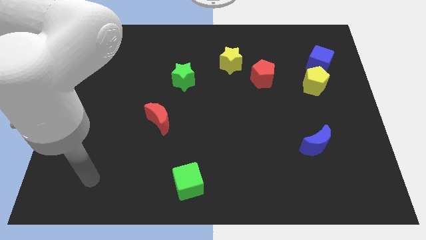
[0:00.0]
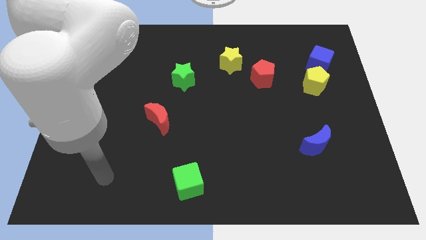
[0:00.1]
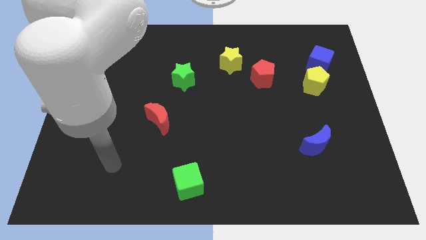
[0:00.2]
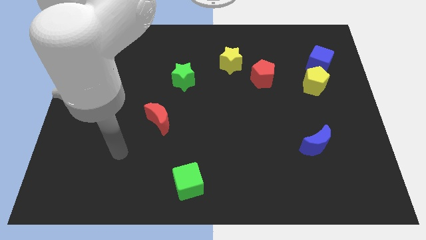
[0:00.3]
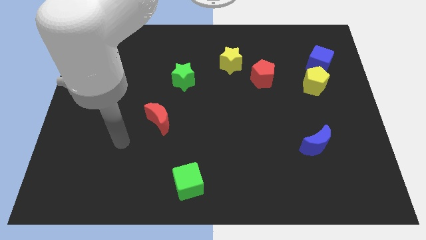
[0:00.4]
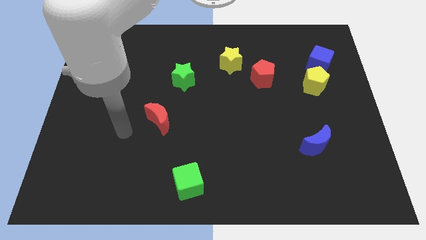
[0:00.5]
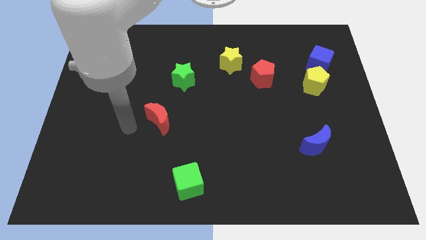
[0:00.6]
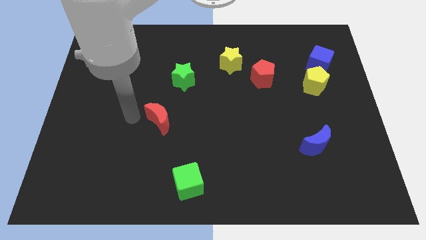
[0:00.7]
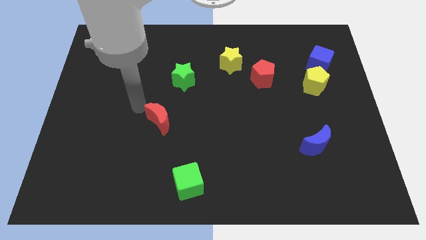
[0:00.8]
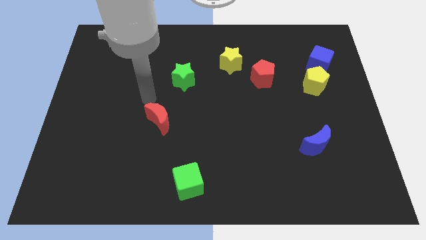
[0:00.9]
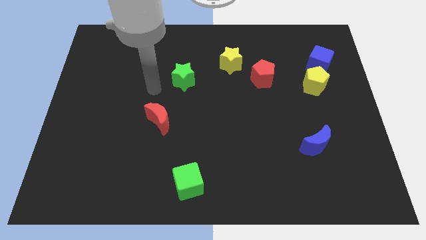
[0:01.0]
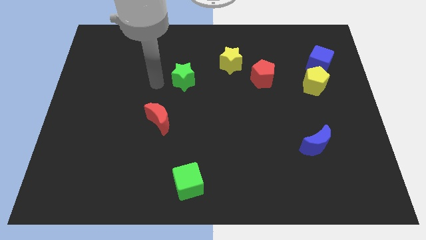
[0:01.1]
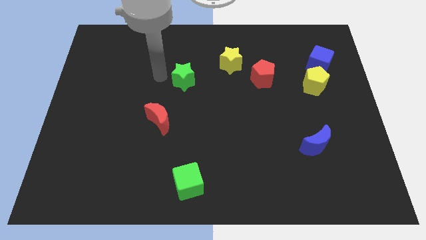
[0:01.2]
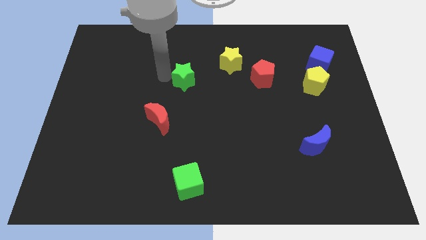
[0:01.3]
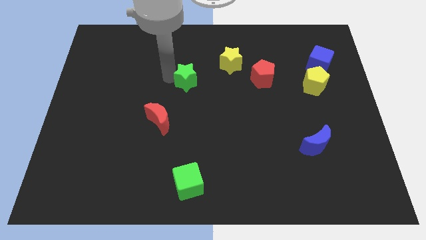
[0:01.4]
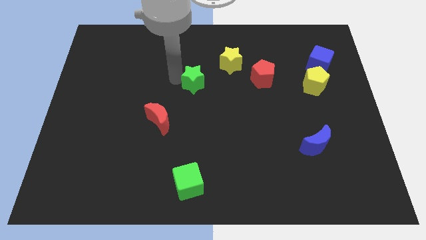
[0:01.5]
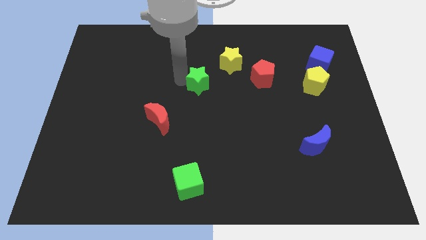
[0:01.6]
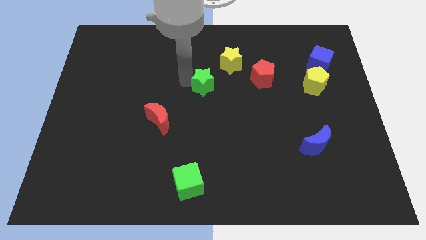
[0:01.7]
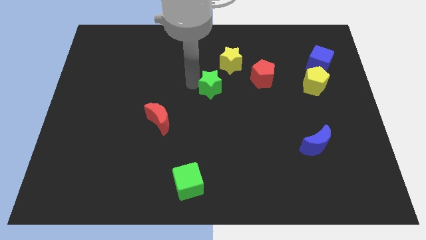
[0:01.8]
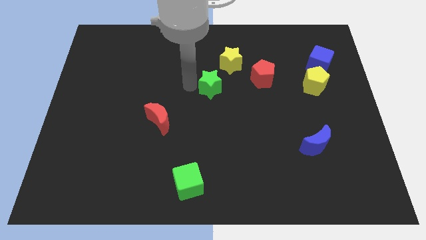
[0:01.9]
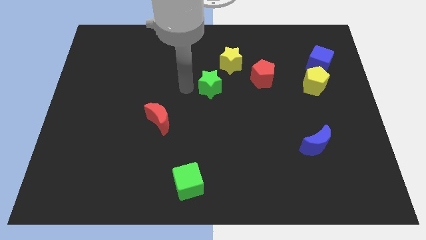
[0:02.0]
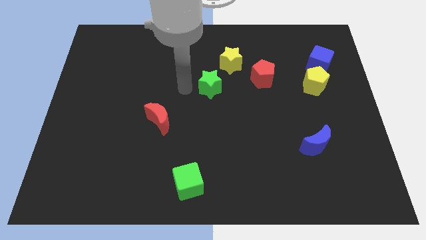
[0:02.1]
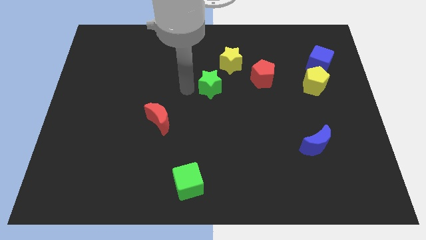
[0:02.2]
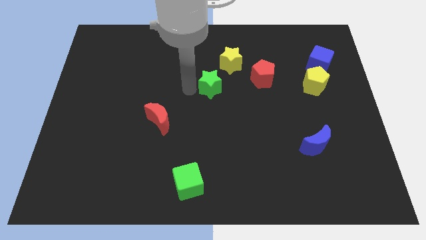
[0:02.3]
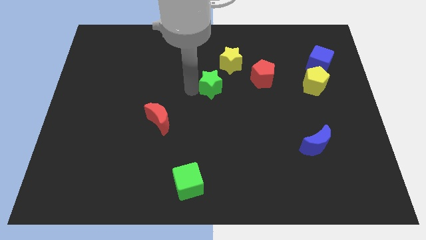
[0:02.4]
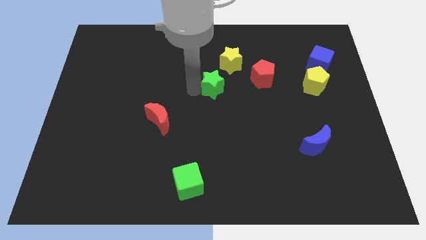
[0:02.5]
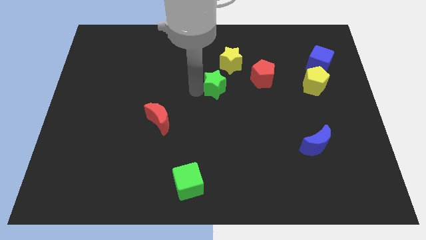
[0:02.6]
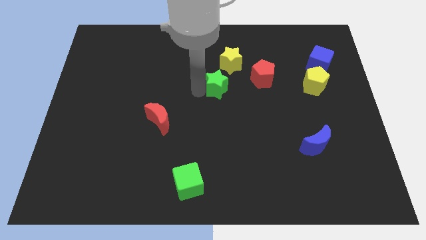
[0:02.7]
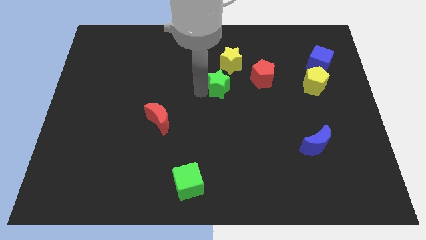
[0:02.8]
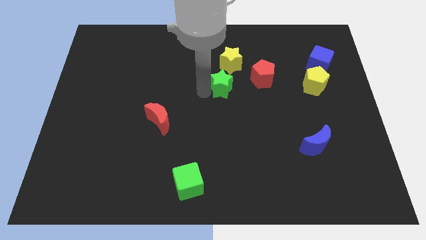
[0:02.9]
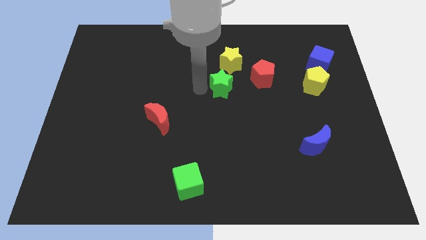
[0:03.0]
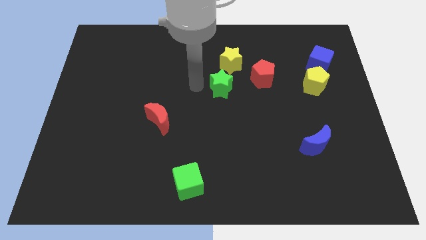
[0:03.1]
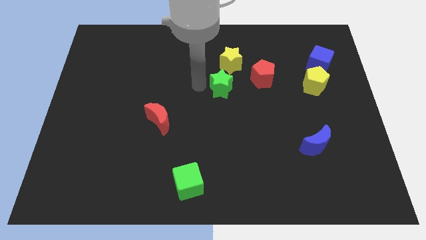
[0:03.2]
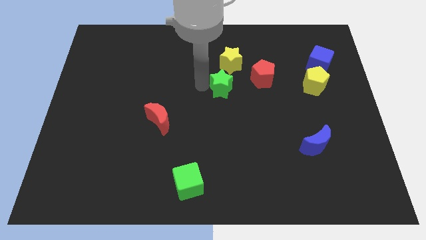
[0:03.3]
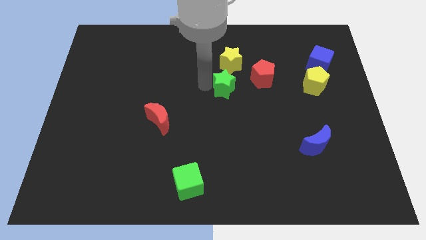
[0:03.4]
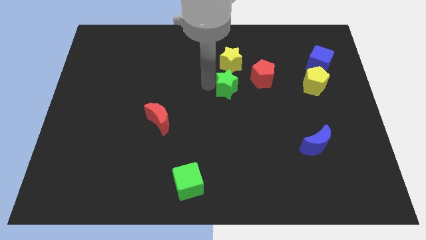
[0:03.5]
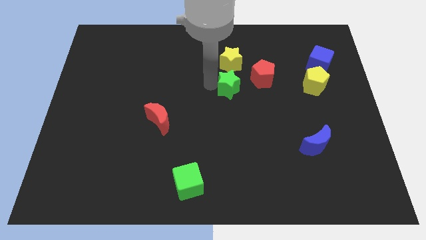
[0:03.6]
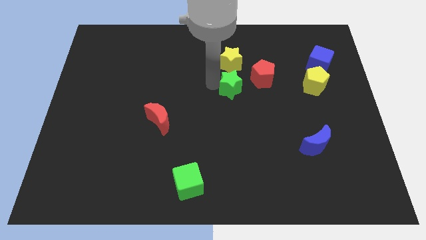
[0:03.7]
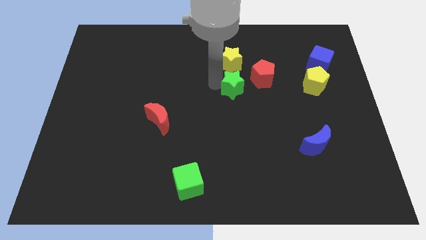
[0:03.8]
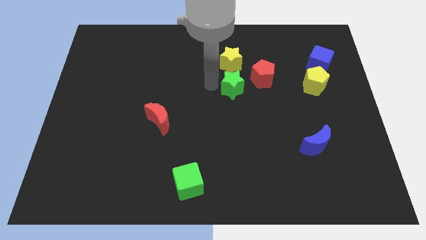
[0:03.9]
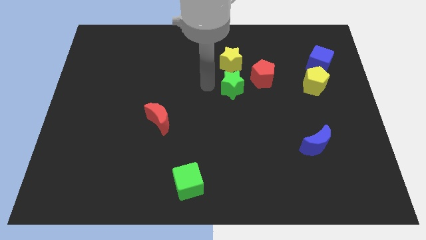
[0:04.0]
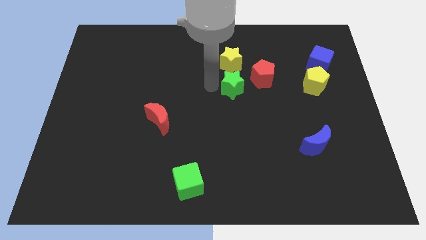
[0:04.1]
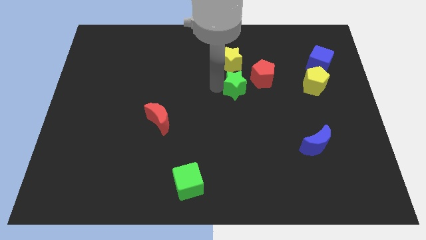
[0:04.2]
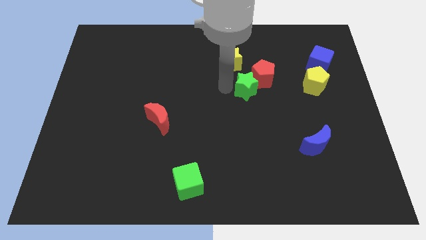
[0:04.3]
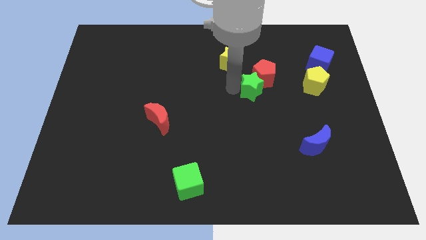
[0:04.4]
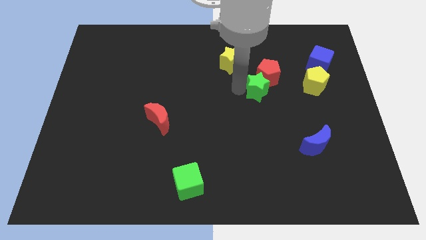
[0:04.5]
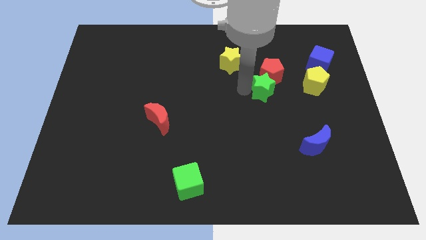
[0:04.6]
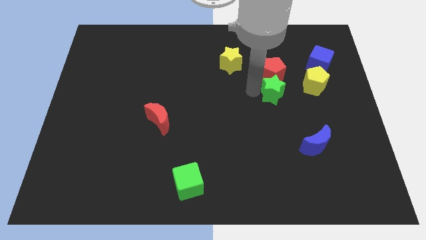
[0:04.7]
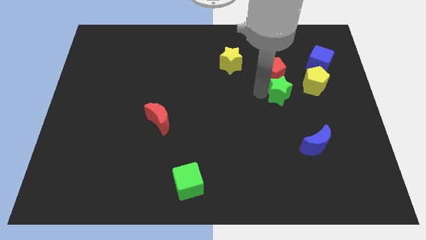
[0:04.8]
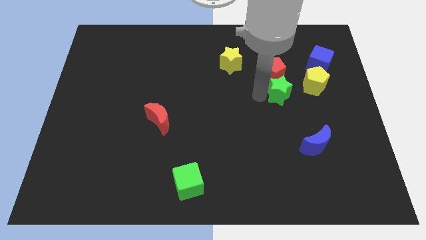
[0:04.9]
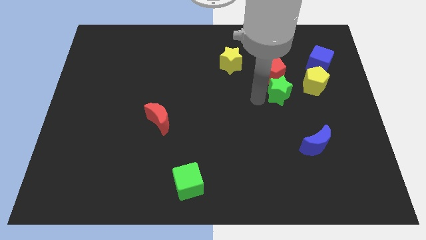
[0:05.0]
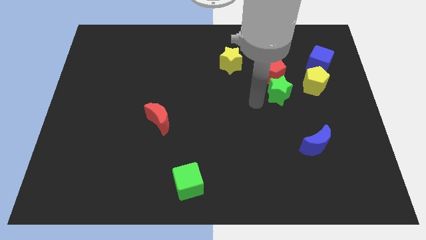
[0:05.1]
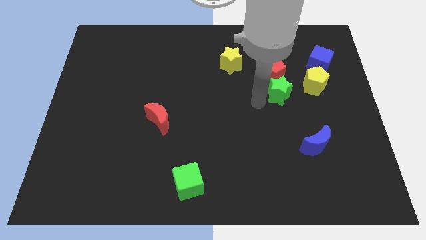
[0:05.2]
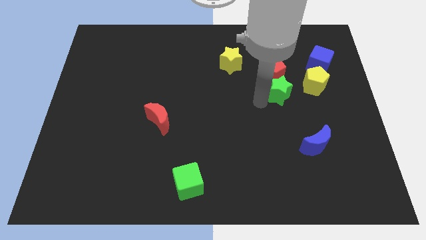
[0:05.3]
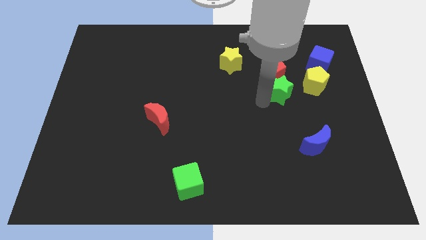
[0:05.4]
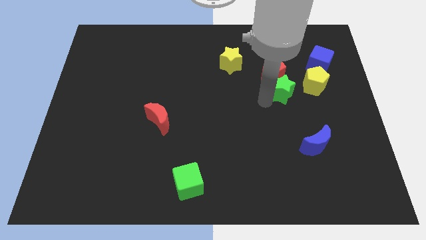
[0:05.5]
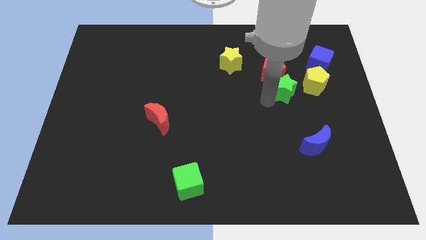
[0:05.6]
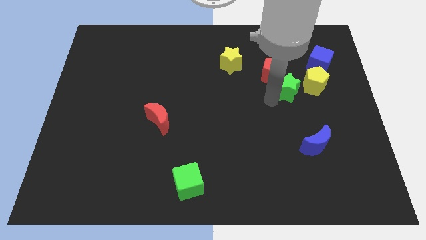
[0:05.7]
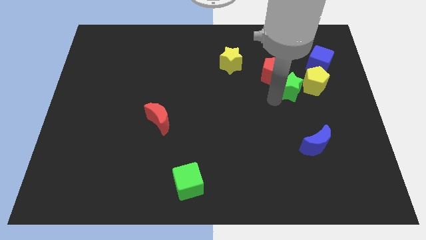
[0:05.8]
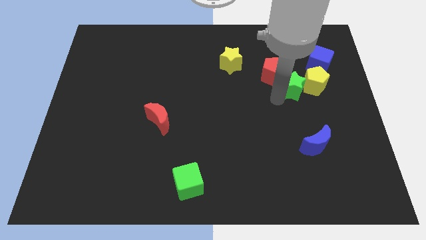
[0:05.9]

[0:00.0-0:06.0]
move the green star next to the yellow pentagon
